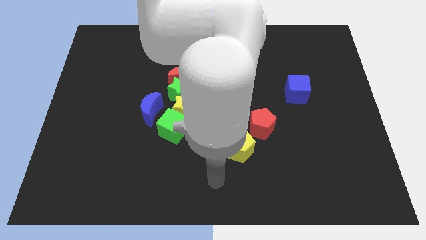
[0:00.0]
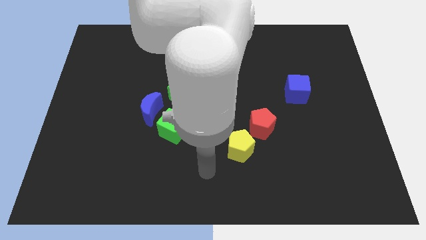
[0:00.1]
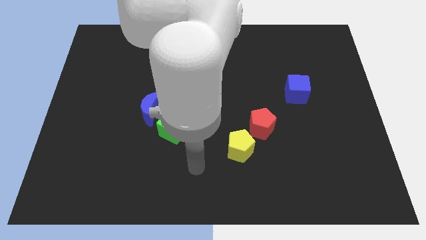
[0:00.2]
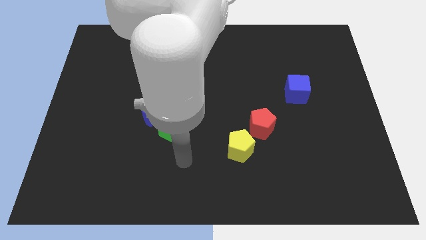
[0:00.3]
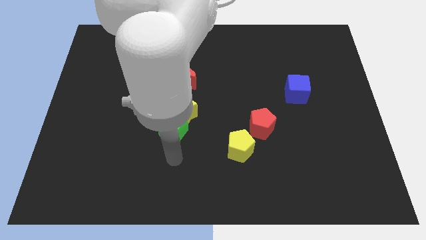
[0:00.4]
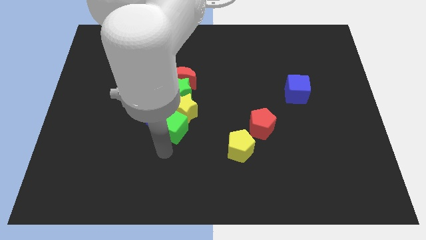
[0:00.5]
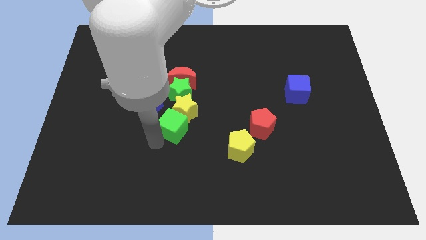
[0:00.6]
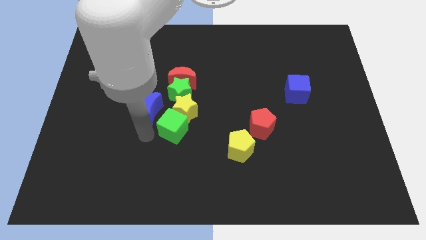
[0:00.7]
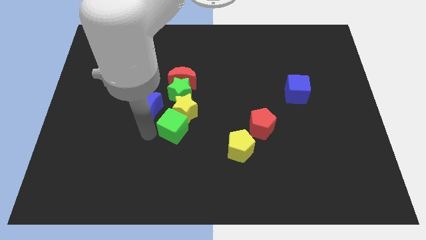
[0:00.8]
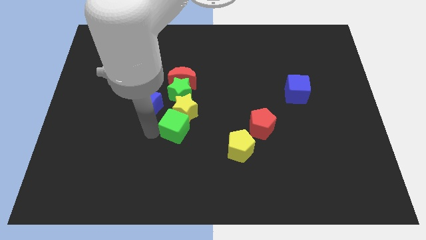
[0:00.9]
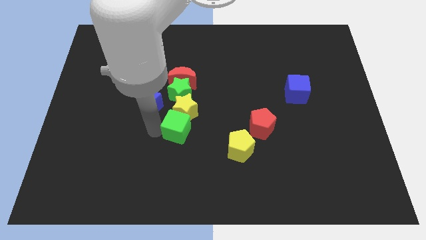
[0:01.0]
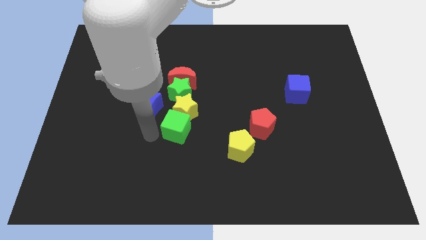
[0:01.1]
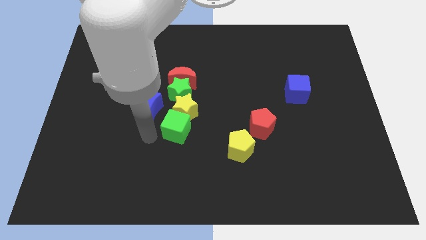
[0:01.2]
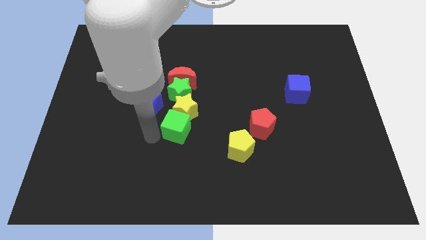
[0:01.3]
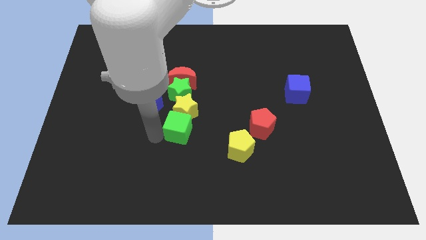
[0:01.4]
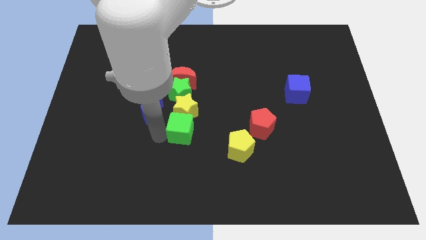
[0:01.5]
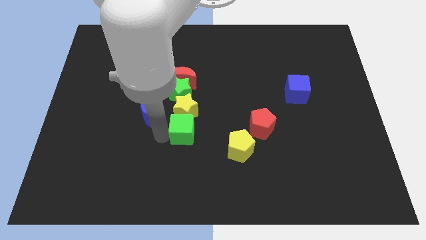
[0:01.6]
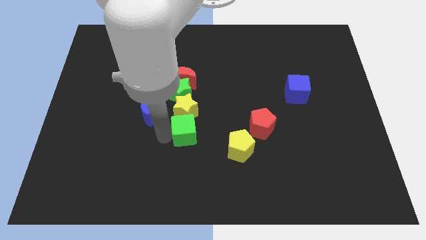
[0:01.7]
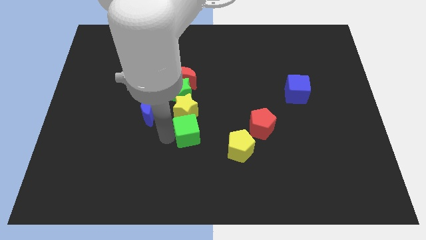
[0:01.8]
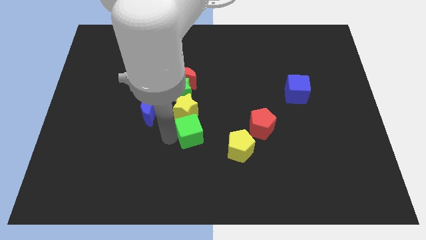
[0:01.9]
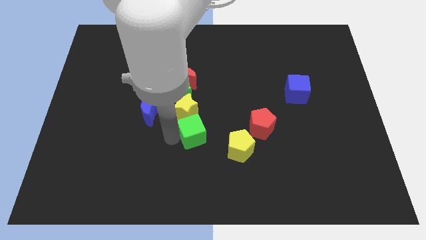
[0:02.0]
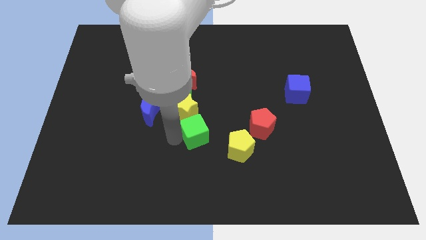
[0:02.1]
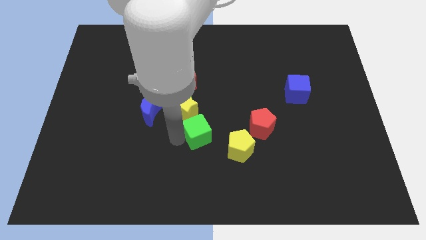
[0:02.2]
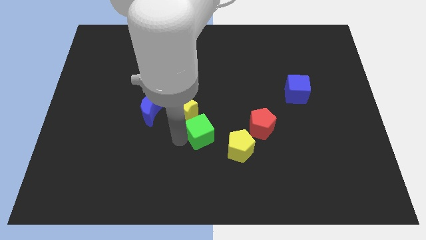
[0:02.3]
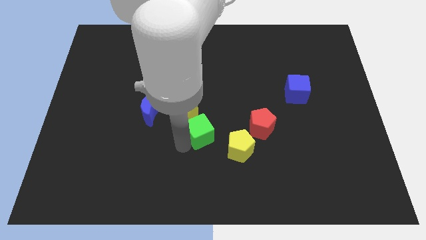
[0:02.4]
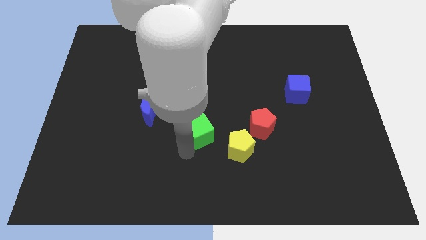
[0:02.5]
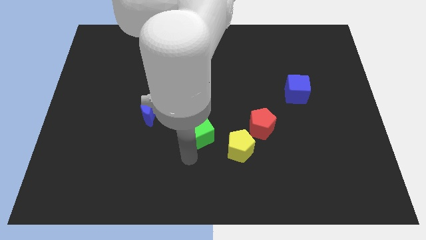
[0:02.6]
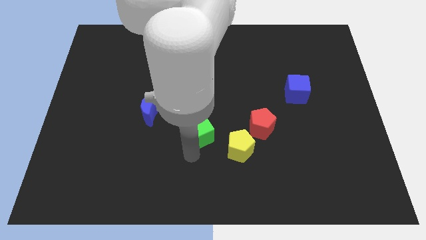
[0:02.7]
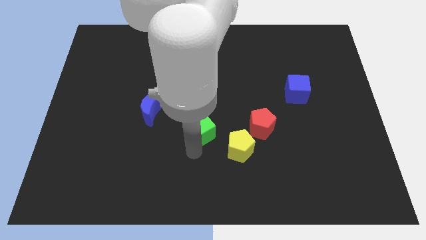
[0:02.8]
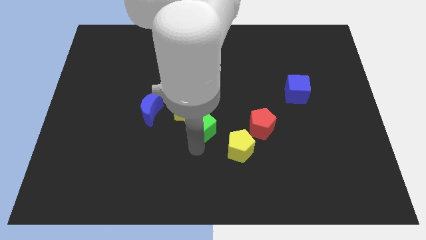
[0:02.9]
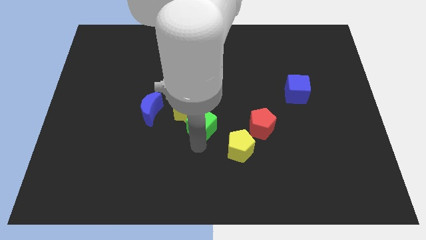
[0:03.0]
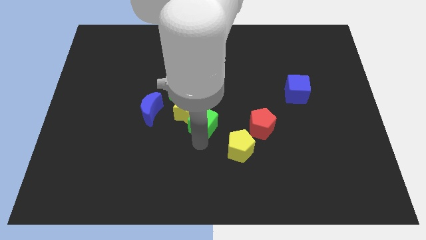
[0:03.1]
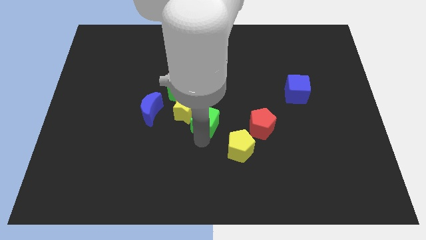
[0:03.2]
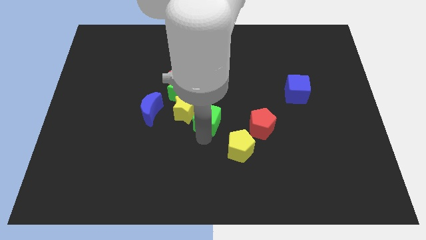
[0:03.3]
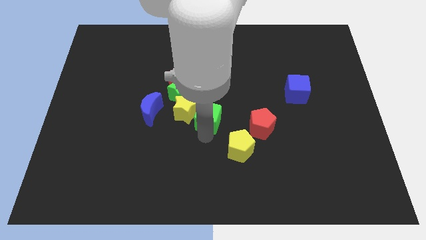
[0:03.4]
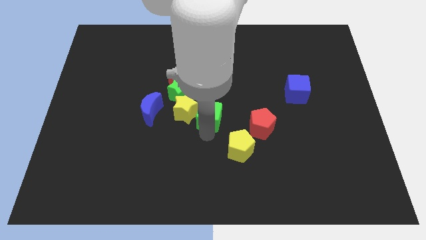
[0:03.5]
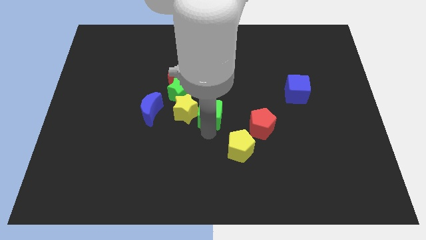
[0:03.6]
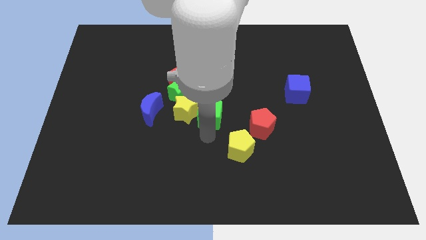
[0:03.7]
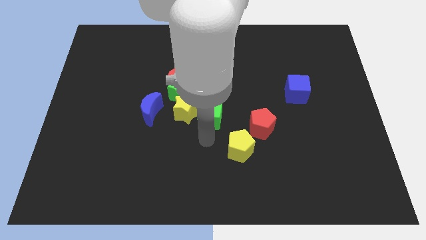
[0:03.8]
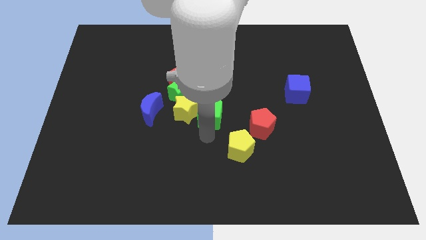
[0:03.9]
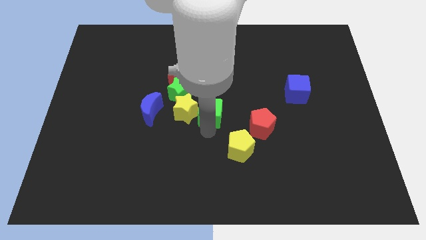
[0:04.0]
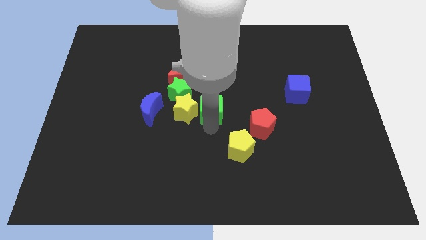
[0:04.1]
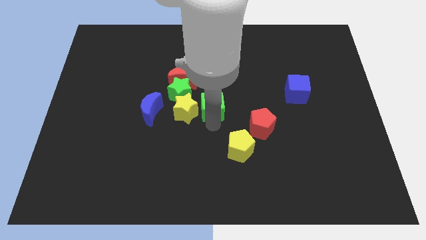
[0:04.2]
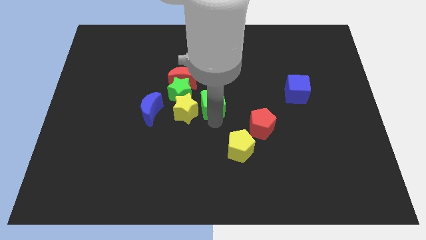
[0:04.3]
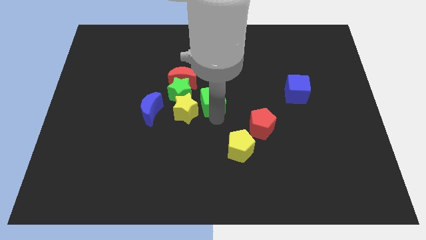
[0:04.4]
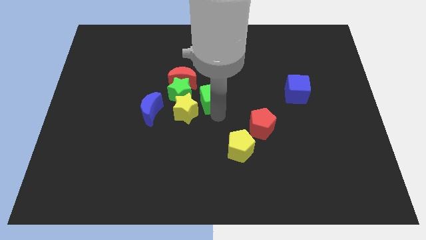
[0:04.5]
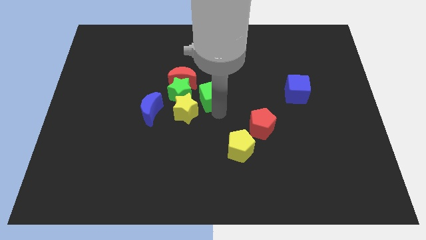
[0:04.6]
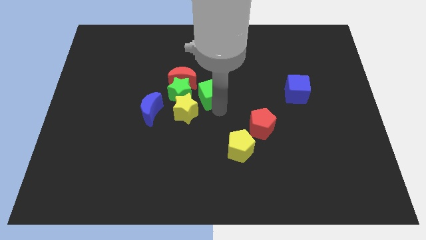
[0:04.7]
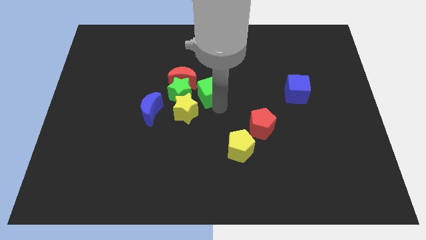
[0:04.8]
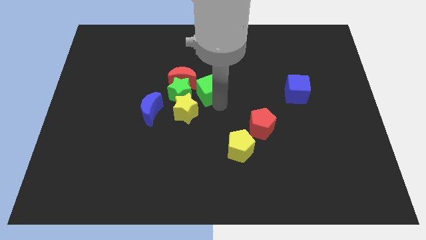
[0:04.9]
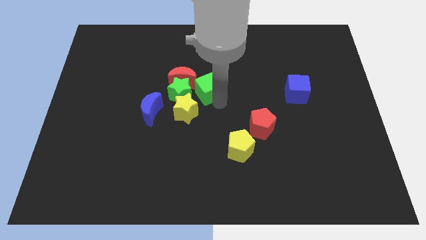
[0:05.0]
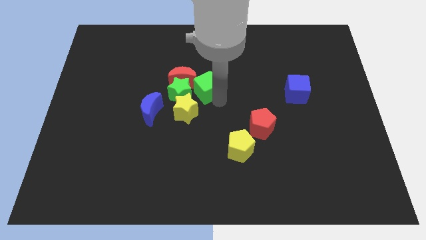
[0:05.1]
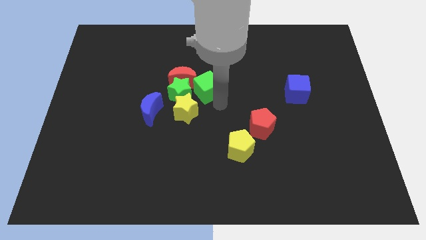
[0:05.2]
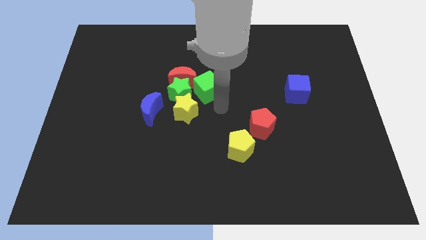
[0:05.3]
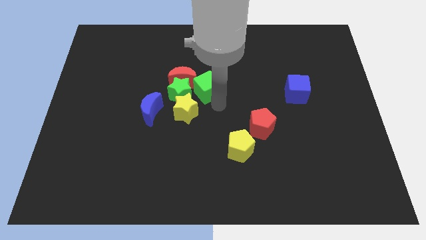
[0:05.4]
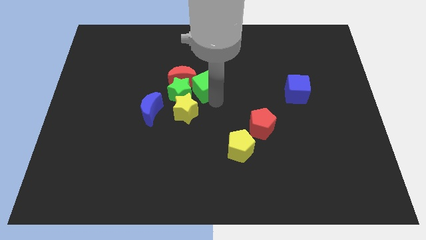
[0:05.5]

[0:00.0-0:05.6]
slide the green cube to the top of the yellow star

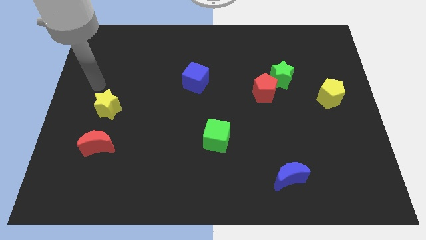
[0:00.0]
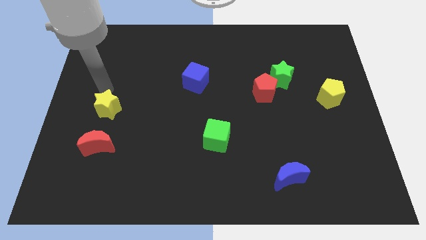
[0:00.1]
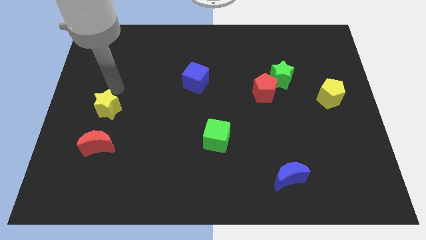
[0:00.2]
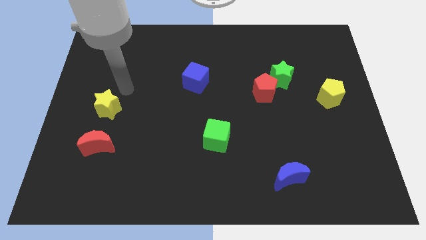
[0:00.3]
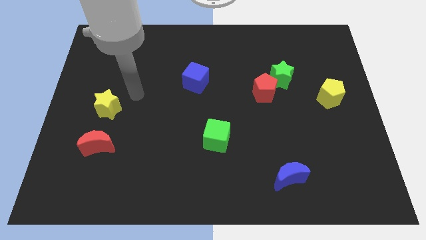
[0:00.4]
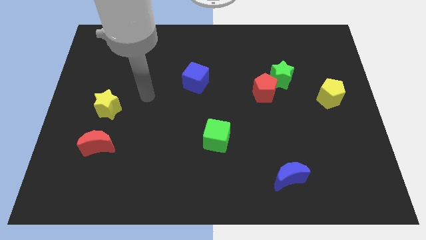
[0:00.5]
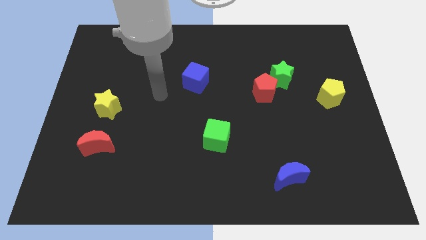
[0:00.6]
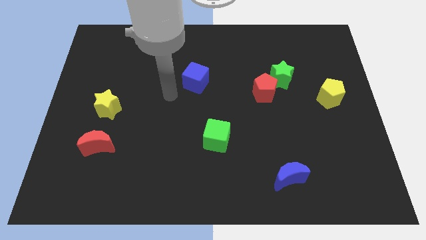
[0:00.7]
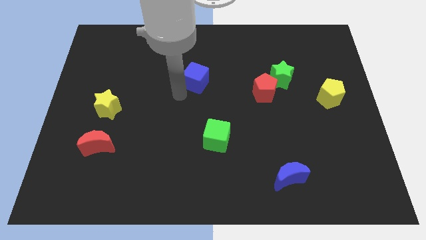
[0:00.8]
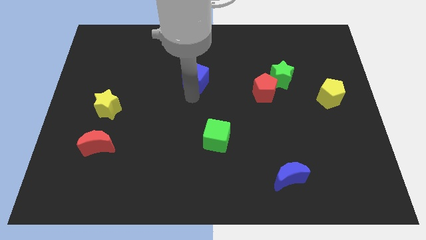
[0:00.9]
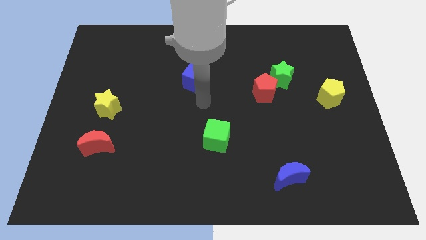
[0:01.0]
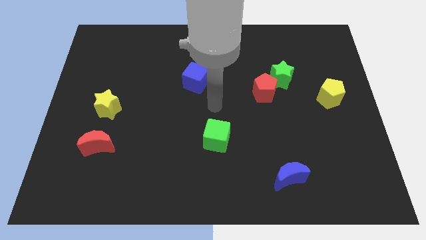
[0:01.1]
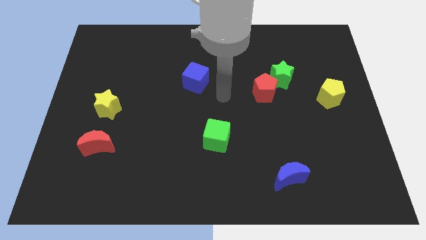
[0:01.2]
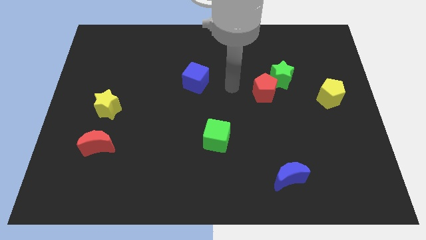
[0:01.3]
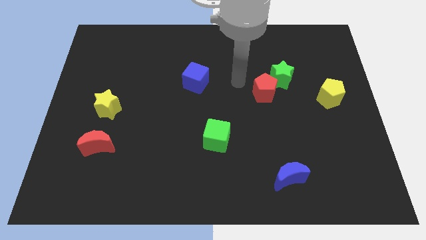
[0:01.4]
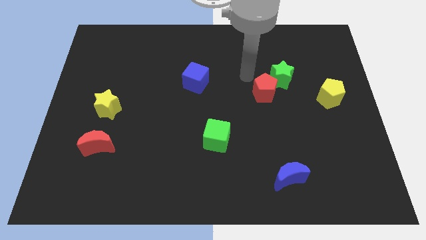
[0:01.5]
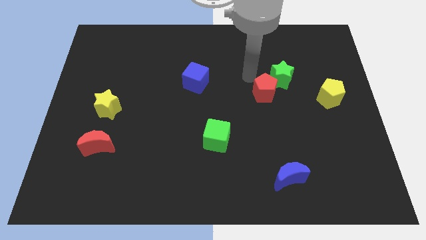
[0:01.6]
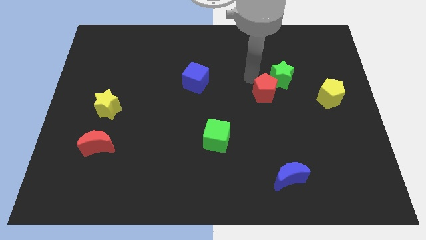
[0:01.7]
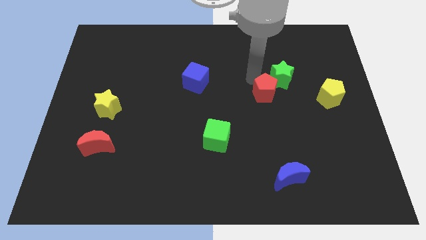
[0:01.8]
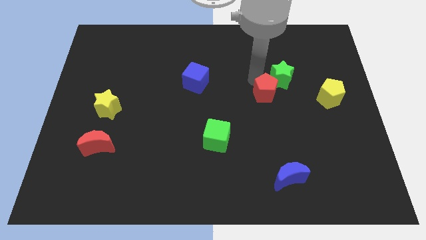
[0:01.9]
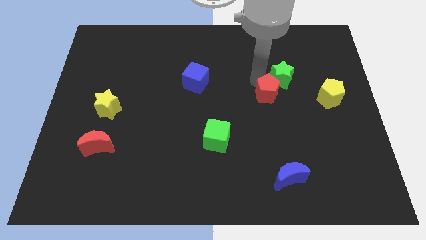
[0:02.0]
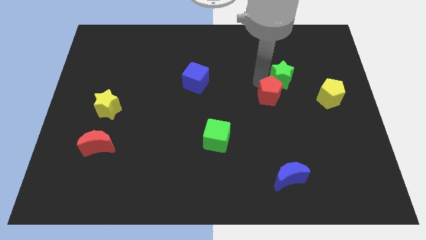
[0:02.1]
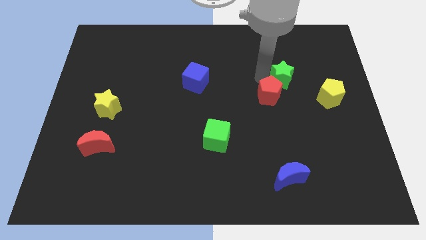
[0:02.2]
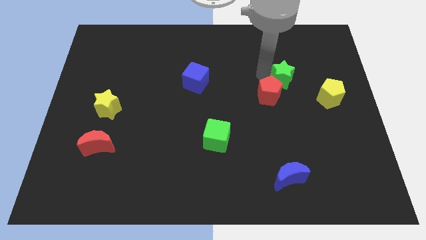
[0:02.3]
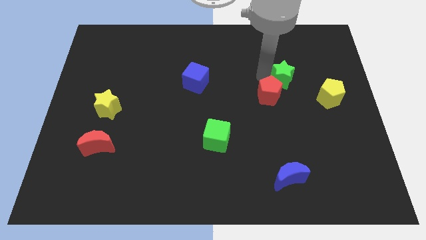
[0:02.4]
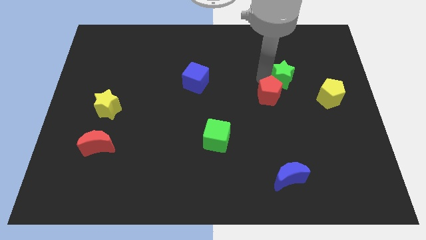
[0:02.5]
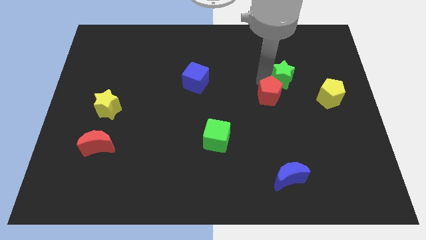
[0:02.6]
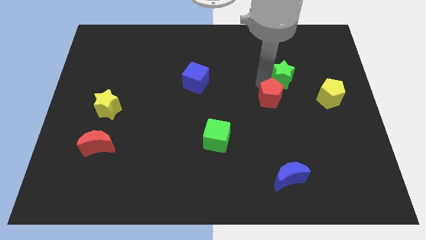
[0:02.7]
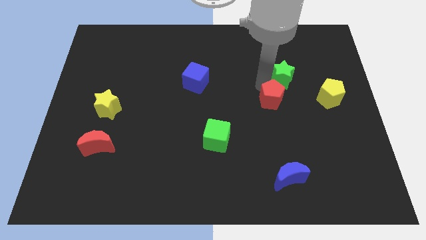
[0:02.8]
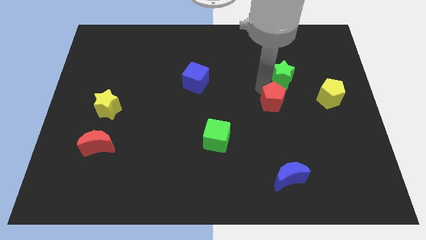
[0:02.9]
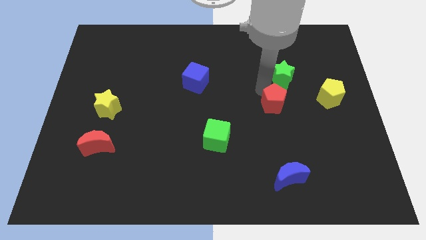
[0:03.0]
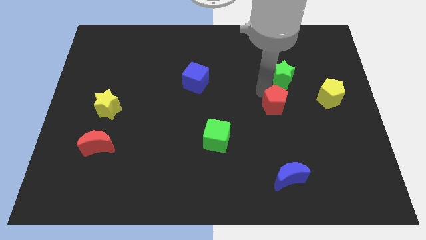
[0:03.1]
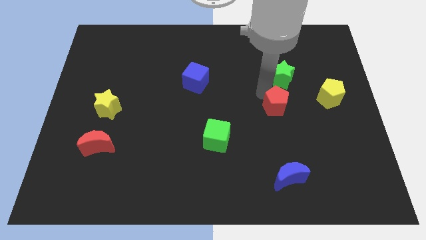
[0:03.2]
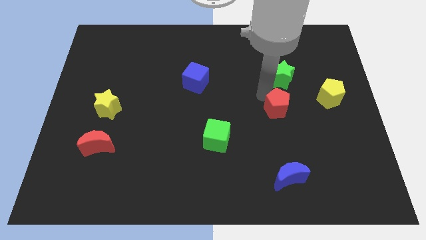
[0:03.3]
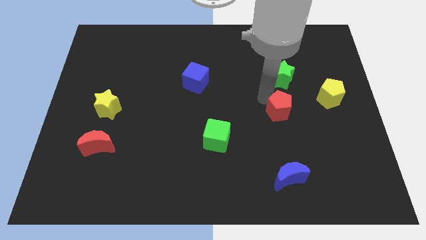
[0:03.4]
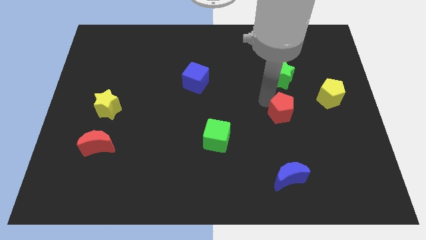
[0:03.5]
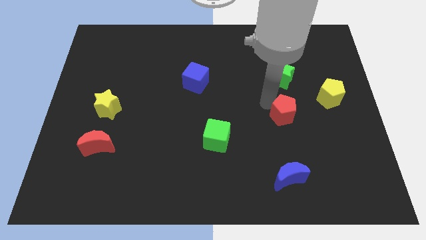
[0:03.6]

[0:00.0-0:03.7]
slide the red pentagon to the top side of the blue moon
